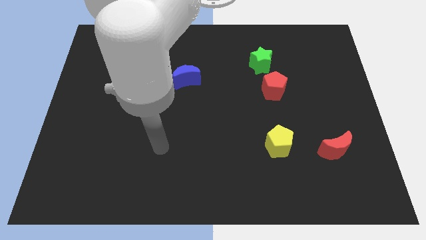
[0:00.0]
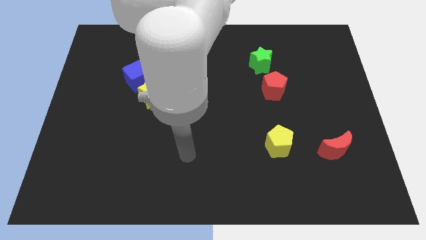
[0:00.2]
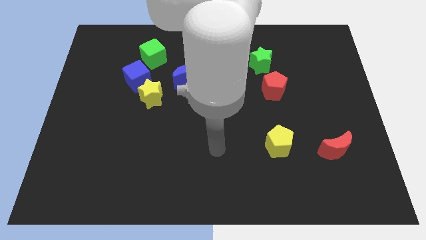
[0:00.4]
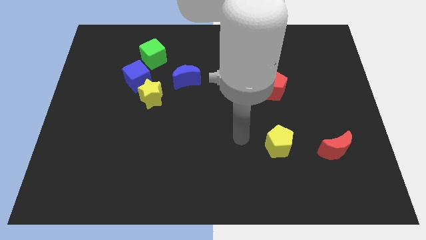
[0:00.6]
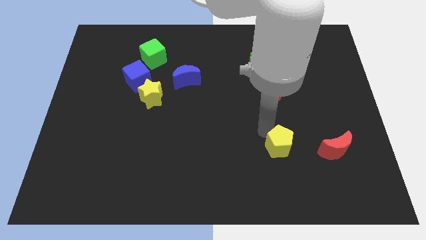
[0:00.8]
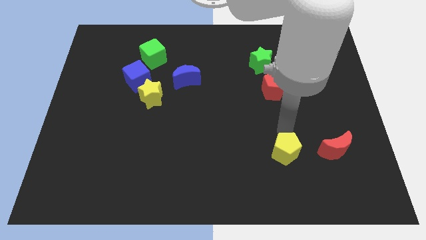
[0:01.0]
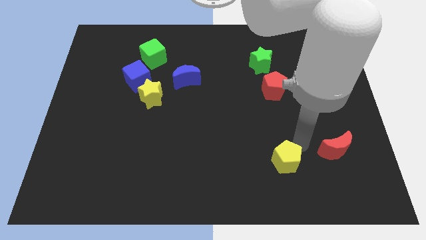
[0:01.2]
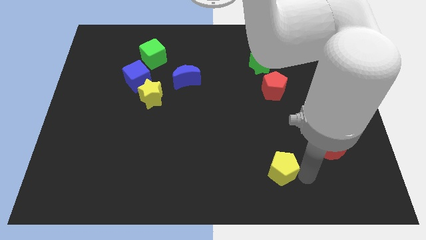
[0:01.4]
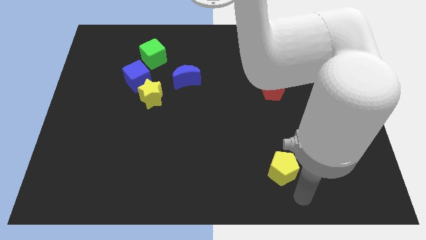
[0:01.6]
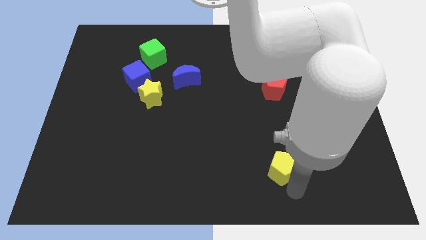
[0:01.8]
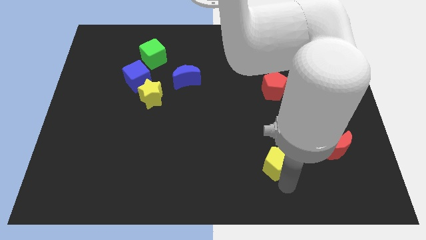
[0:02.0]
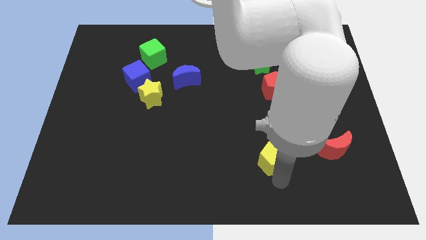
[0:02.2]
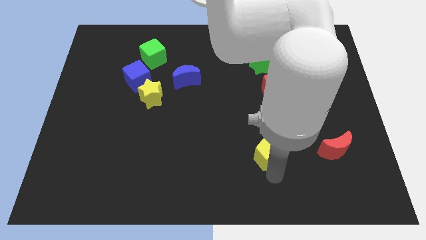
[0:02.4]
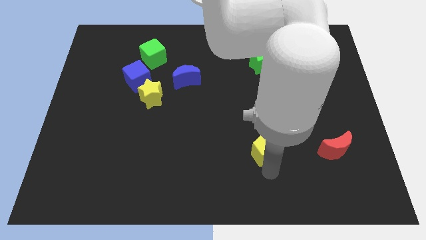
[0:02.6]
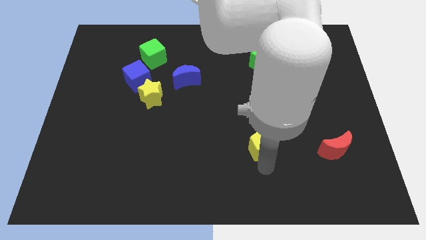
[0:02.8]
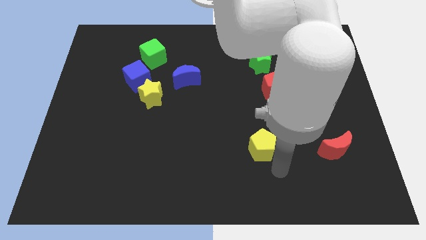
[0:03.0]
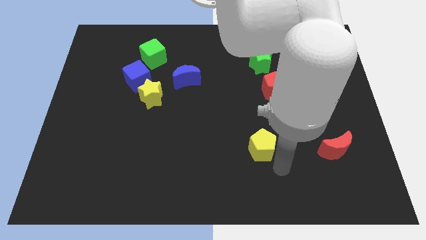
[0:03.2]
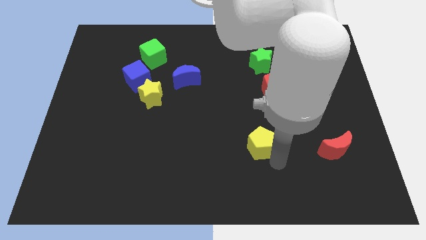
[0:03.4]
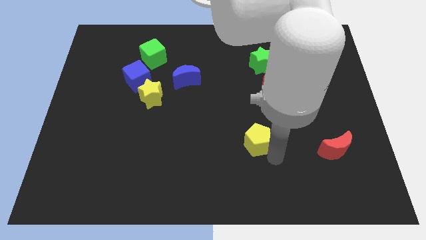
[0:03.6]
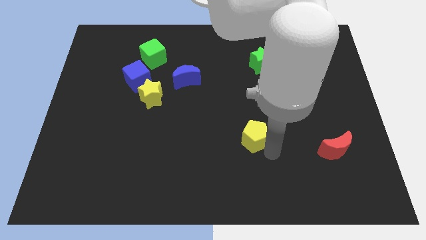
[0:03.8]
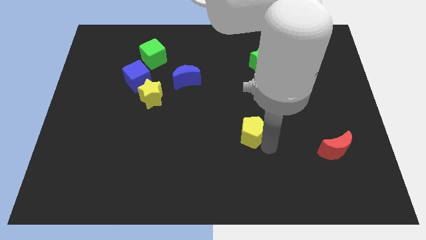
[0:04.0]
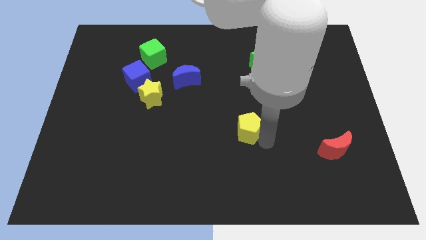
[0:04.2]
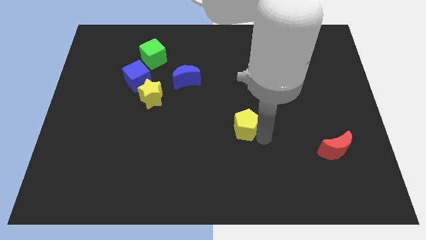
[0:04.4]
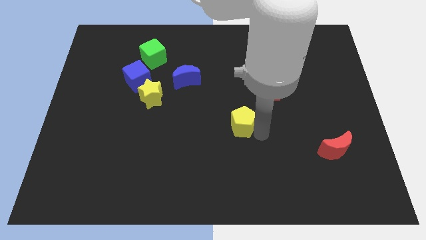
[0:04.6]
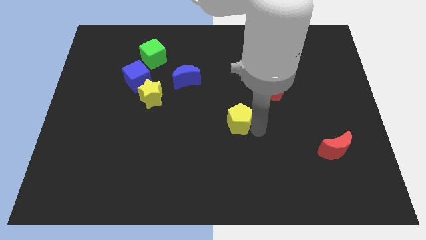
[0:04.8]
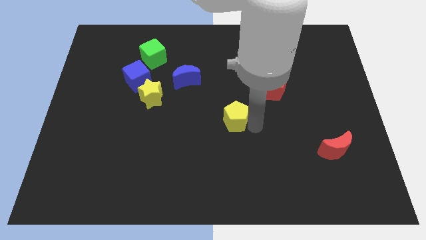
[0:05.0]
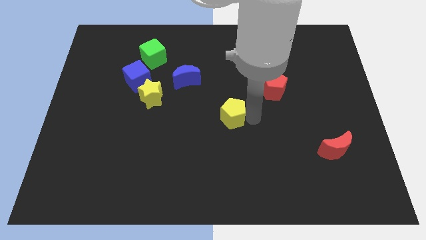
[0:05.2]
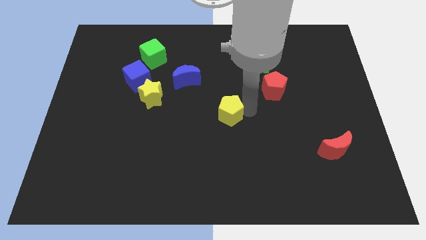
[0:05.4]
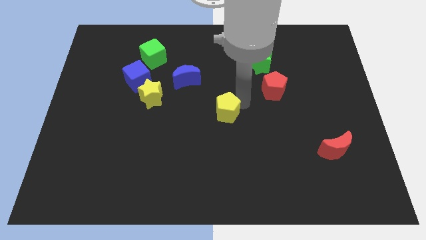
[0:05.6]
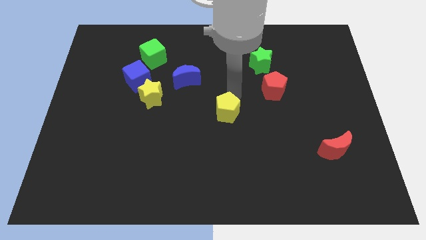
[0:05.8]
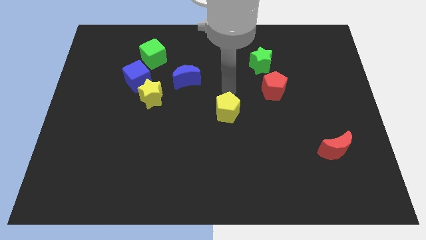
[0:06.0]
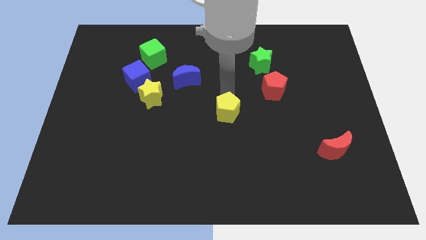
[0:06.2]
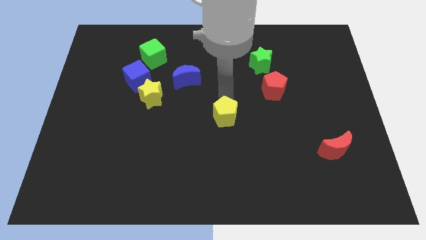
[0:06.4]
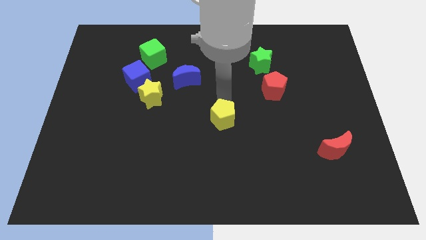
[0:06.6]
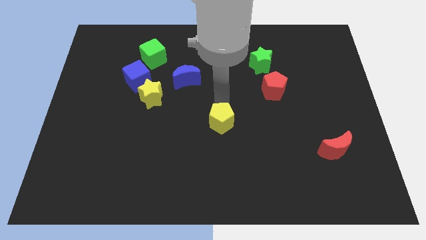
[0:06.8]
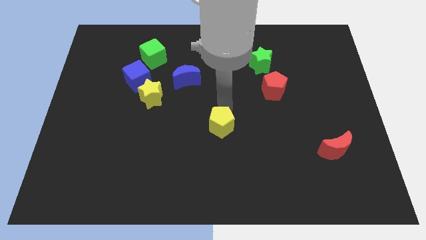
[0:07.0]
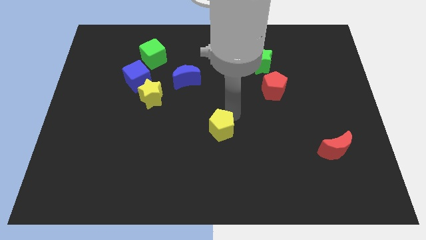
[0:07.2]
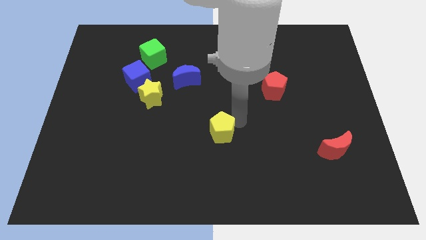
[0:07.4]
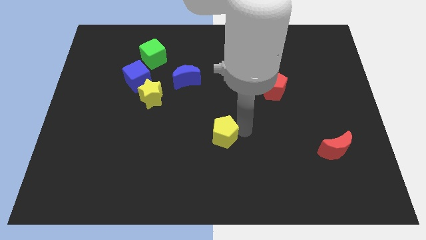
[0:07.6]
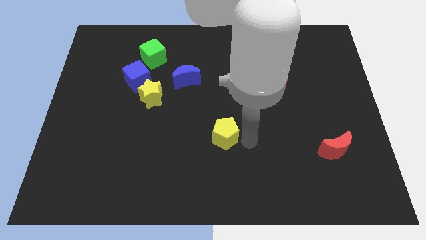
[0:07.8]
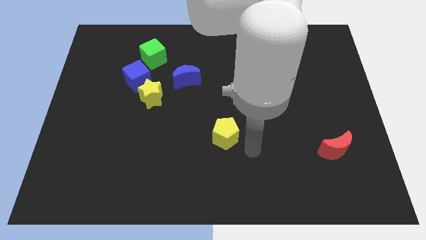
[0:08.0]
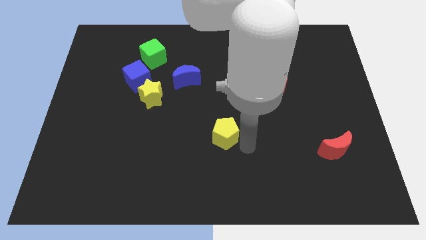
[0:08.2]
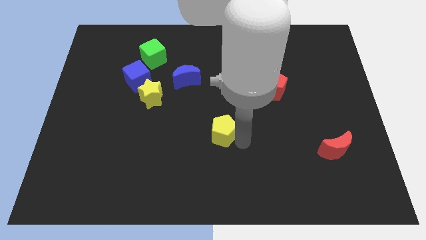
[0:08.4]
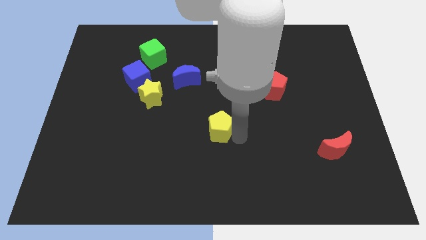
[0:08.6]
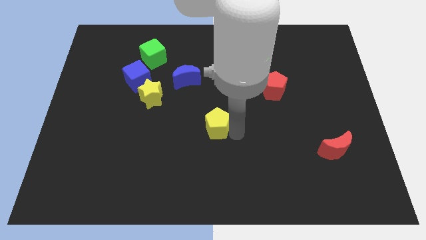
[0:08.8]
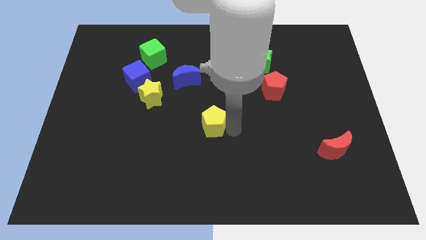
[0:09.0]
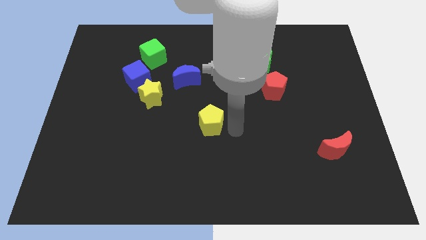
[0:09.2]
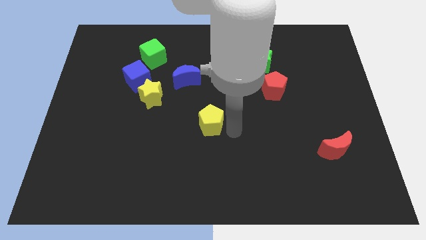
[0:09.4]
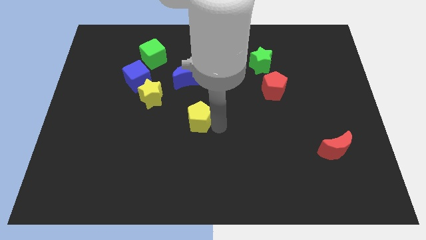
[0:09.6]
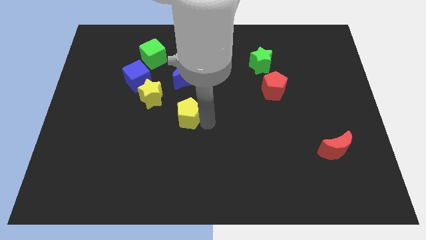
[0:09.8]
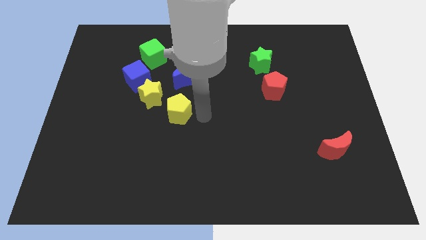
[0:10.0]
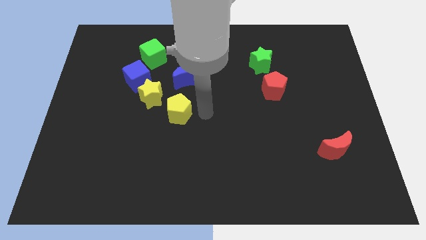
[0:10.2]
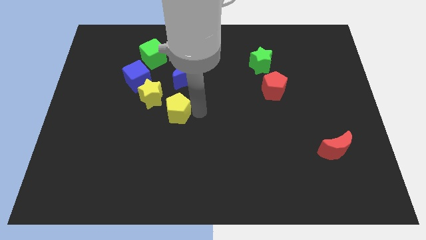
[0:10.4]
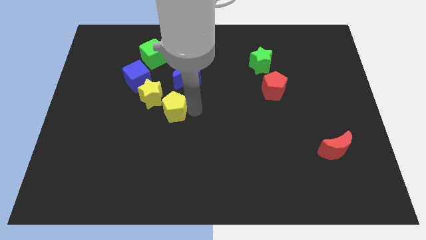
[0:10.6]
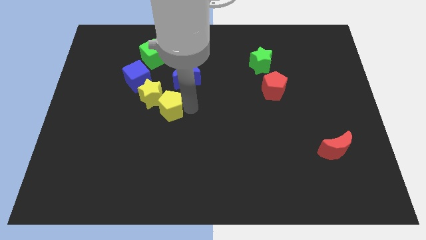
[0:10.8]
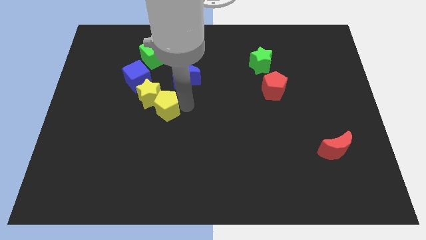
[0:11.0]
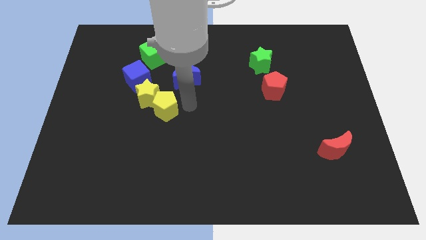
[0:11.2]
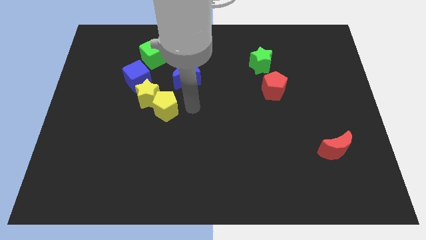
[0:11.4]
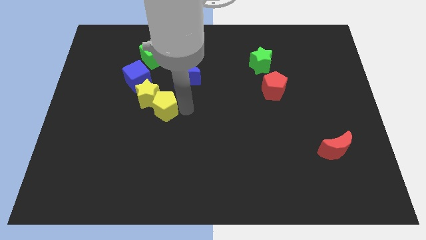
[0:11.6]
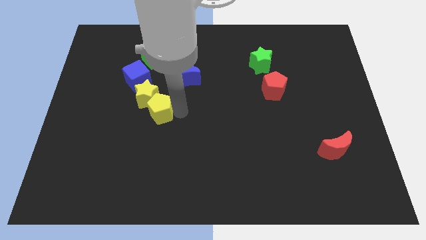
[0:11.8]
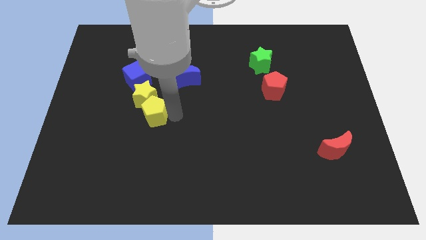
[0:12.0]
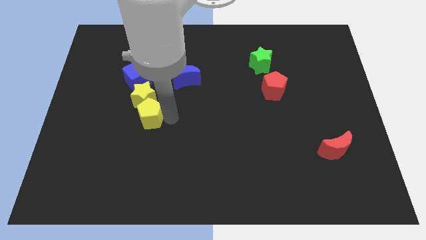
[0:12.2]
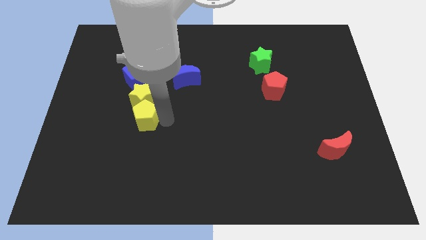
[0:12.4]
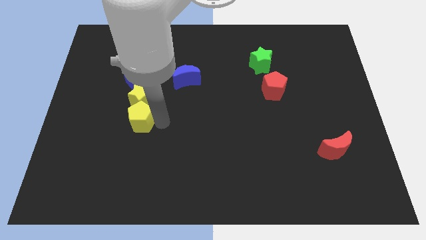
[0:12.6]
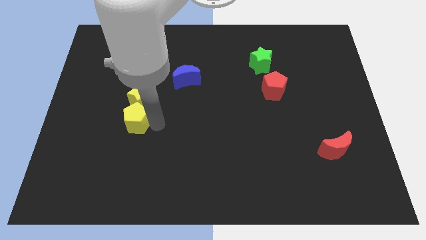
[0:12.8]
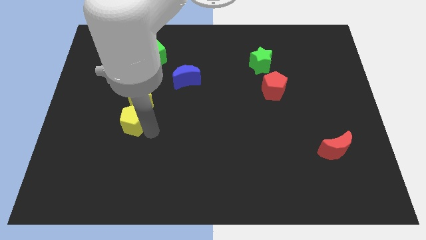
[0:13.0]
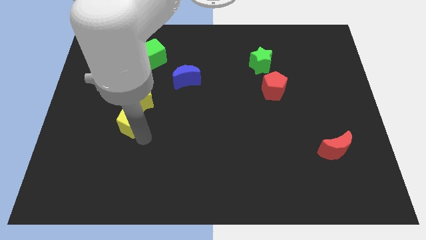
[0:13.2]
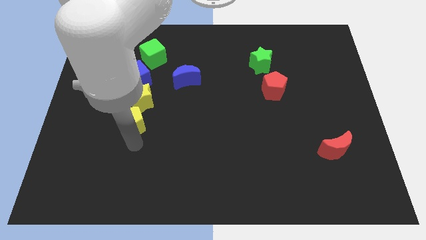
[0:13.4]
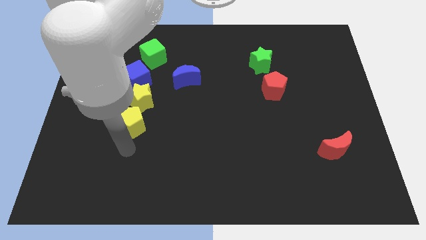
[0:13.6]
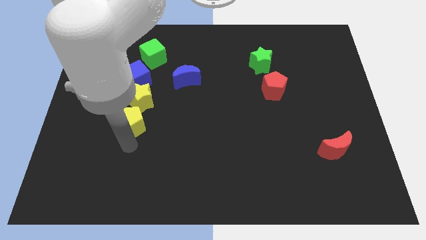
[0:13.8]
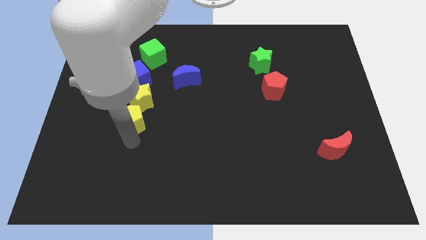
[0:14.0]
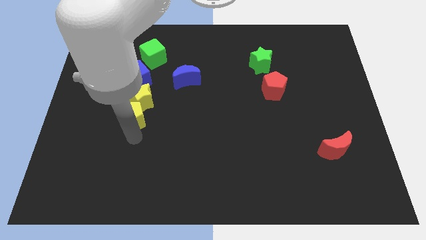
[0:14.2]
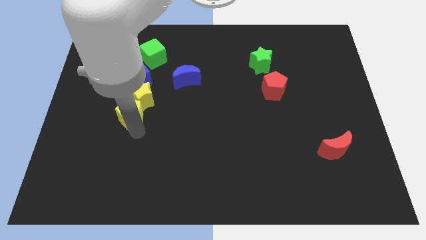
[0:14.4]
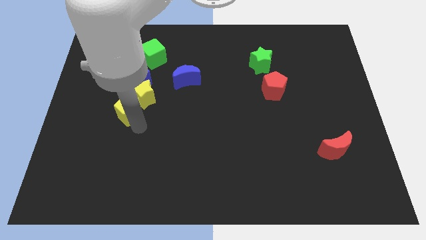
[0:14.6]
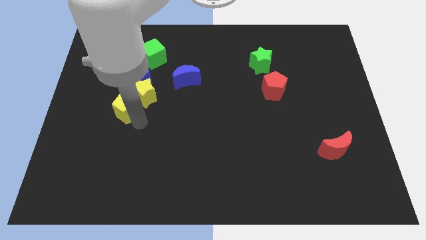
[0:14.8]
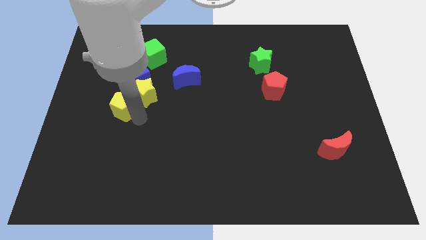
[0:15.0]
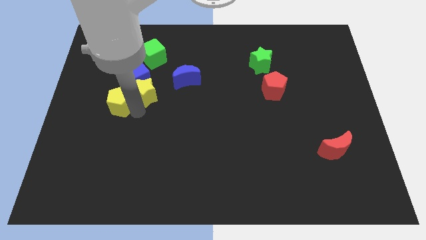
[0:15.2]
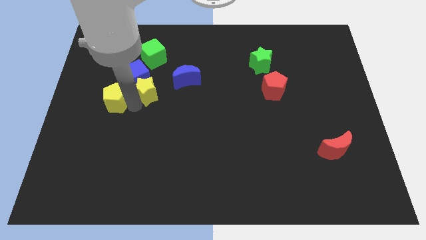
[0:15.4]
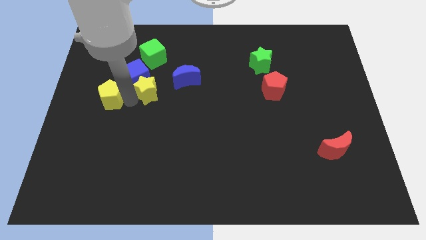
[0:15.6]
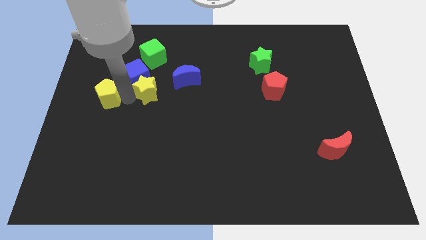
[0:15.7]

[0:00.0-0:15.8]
push the yellow pentagon to the left side
